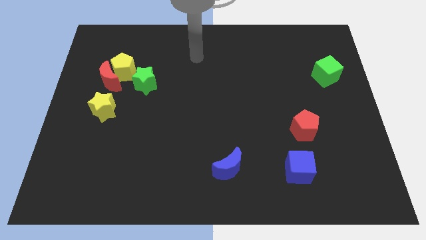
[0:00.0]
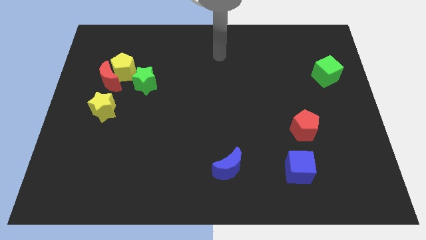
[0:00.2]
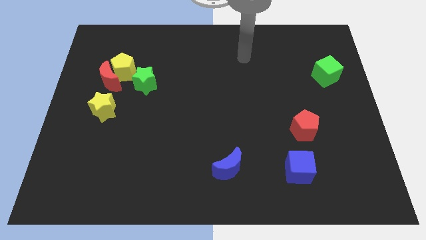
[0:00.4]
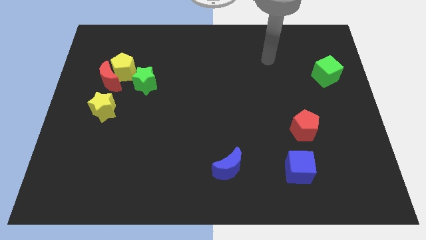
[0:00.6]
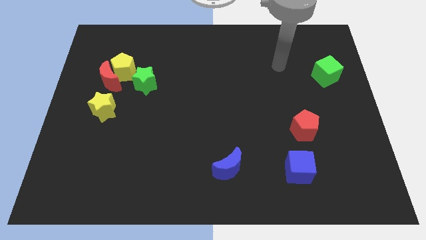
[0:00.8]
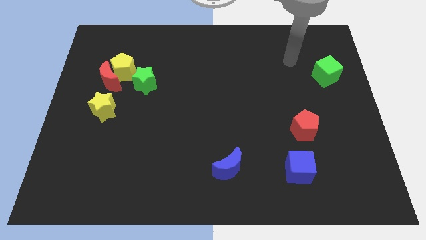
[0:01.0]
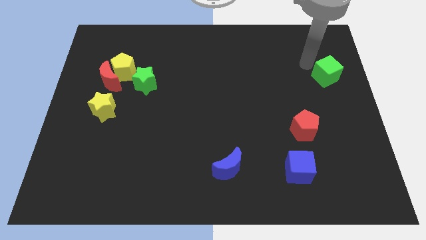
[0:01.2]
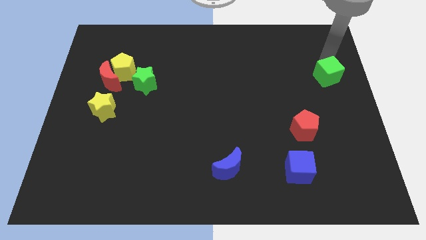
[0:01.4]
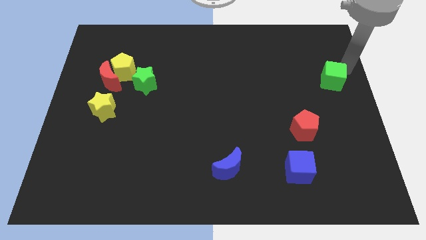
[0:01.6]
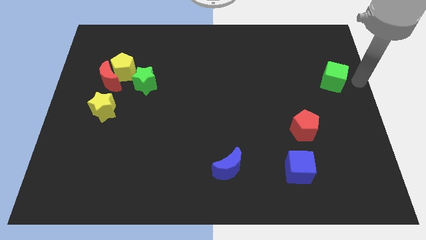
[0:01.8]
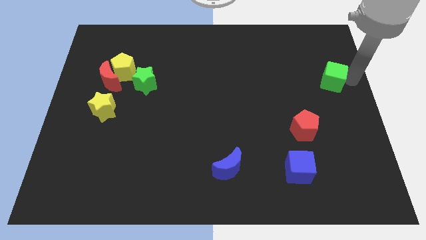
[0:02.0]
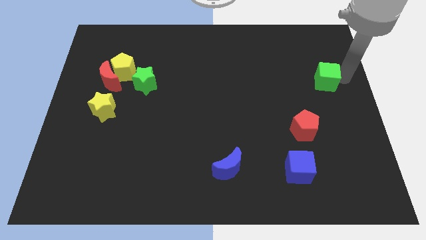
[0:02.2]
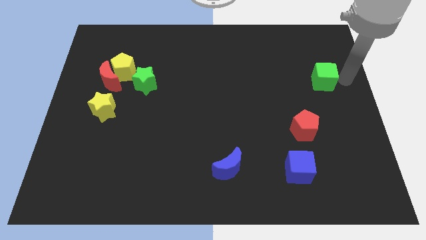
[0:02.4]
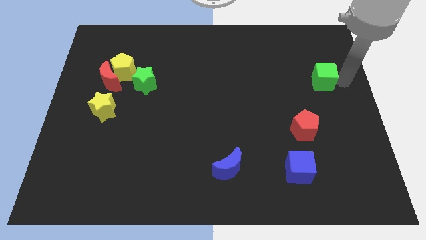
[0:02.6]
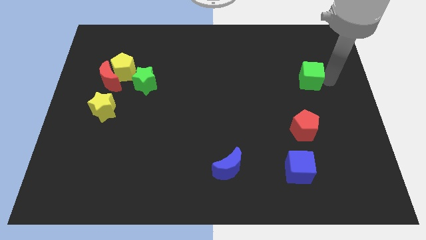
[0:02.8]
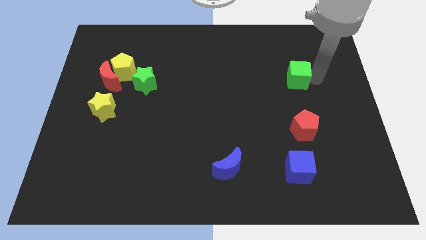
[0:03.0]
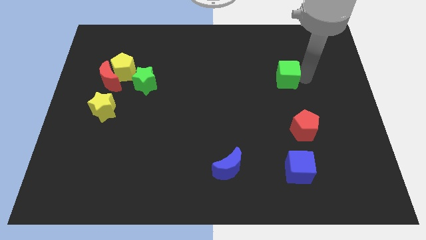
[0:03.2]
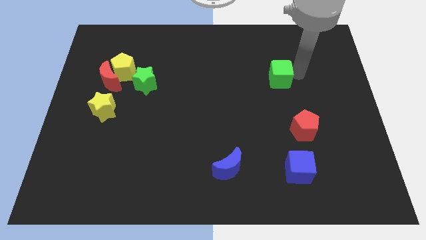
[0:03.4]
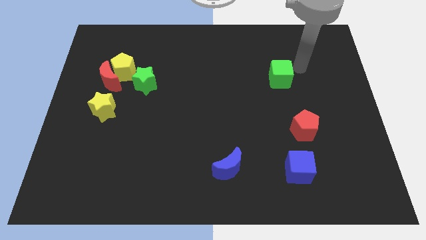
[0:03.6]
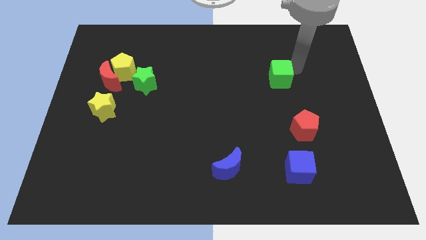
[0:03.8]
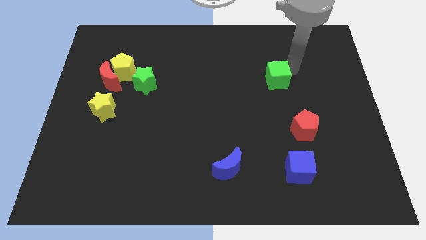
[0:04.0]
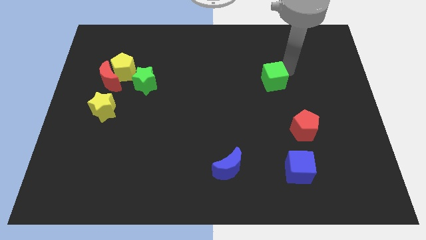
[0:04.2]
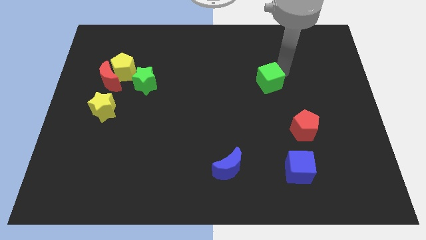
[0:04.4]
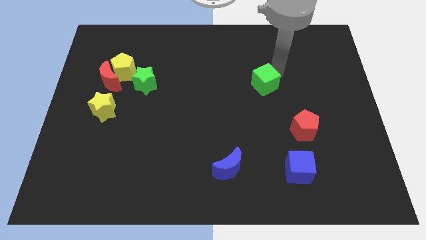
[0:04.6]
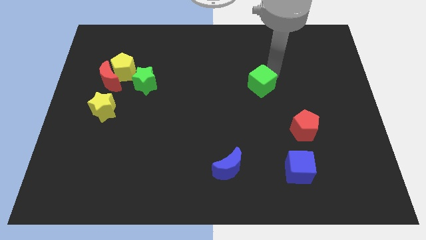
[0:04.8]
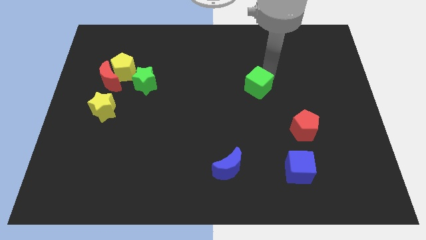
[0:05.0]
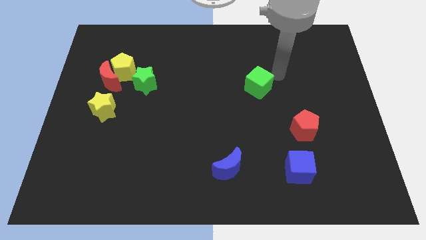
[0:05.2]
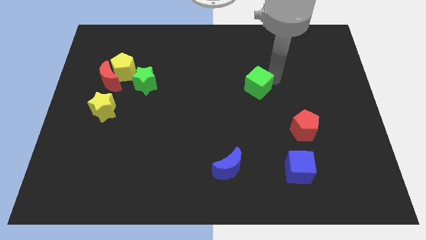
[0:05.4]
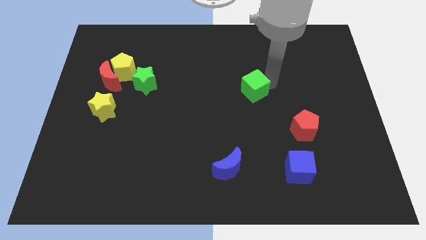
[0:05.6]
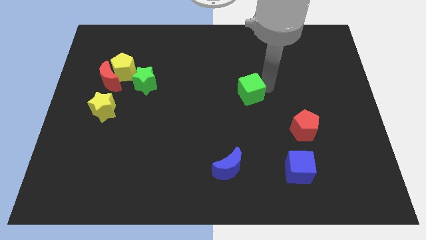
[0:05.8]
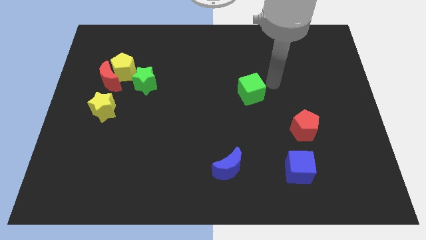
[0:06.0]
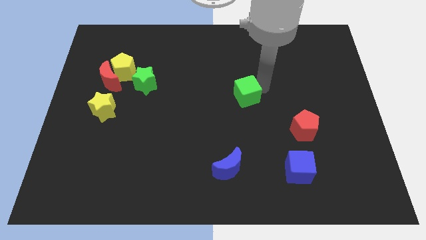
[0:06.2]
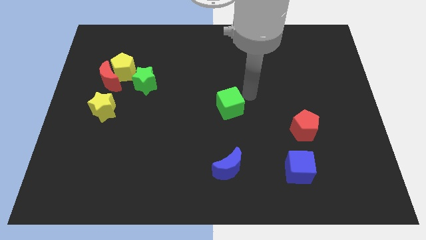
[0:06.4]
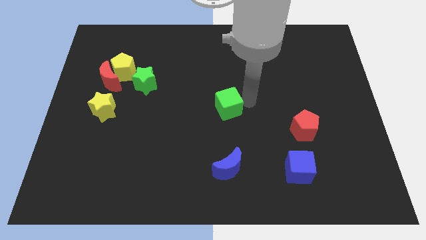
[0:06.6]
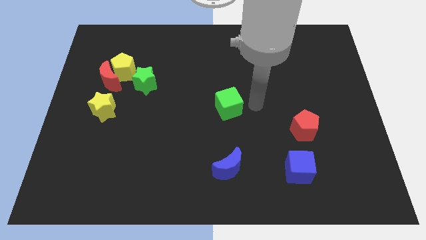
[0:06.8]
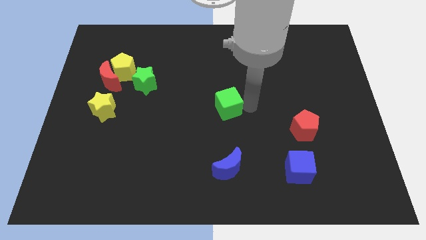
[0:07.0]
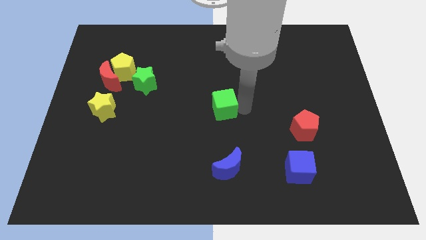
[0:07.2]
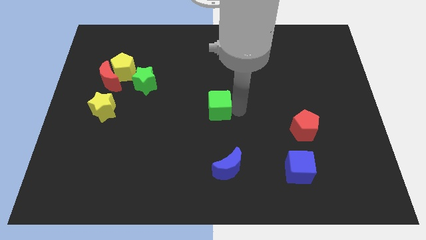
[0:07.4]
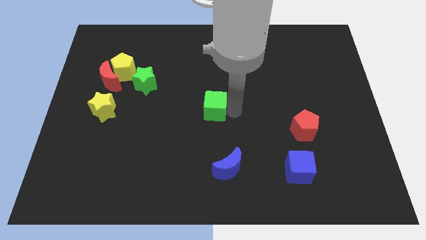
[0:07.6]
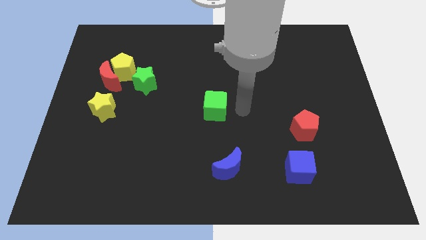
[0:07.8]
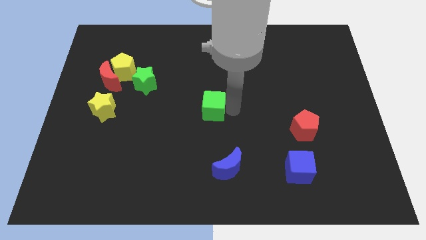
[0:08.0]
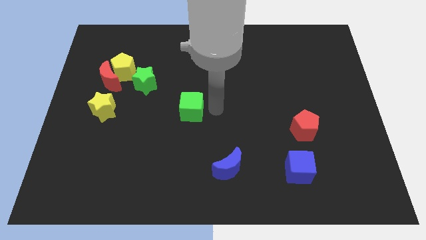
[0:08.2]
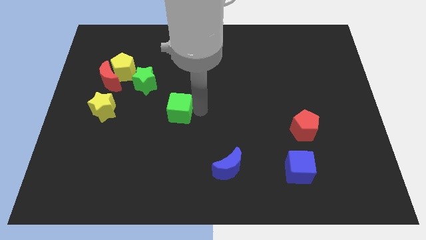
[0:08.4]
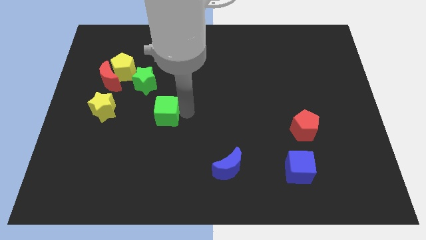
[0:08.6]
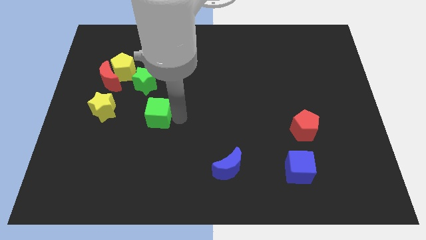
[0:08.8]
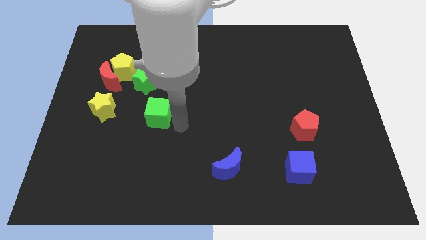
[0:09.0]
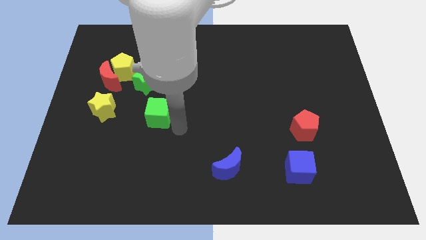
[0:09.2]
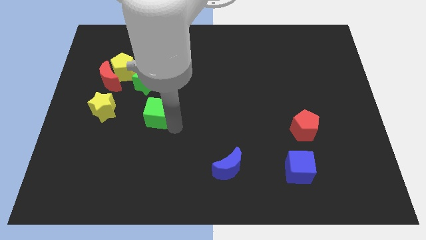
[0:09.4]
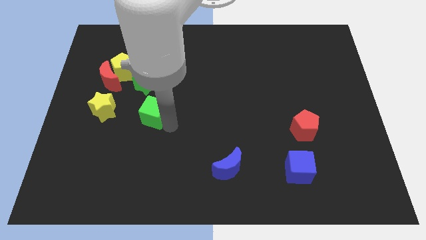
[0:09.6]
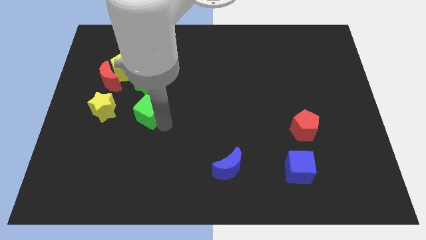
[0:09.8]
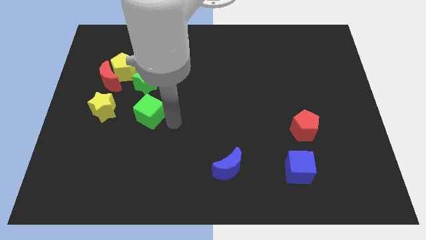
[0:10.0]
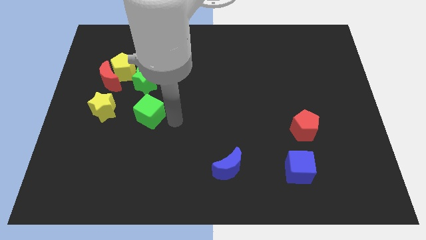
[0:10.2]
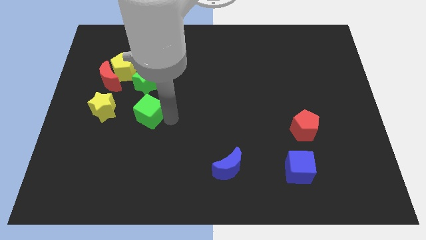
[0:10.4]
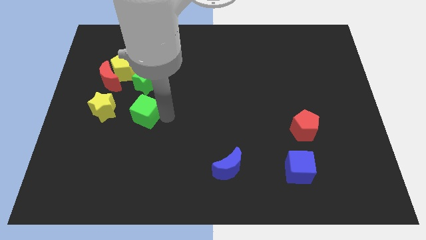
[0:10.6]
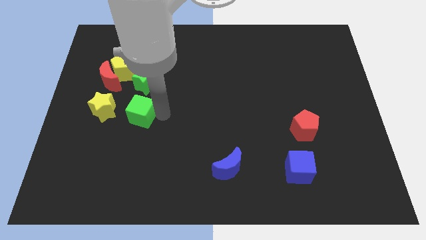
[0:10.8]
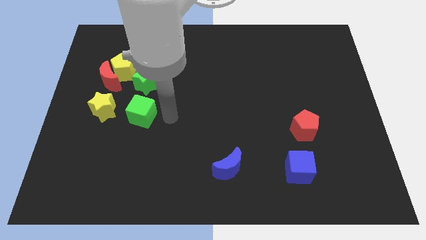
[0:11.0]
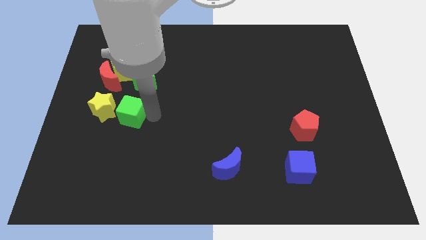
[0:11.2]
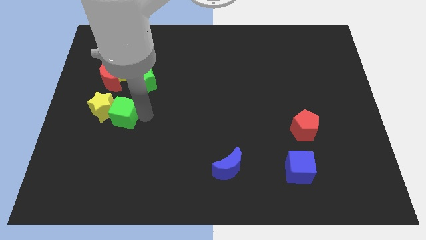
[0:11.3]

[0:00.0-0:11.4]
push the green cube close to the yellow star

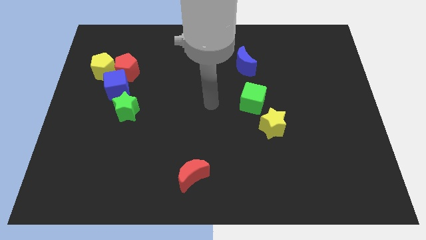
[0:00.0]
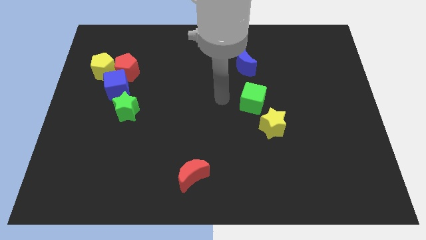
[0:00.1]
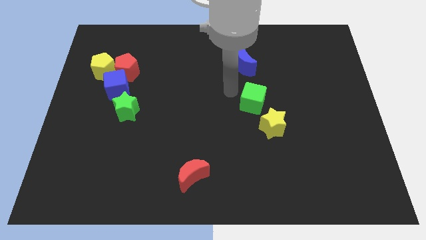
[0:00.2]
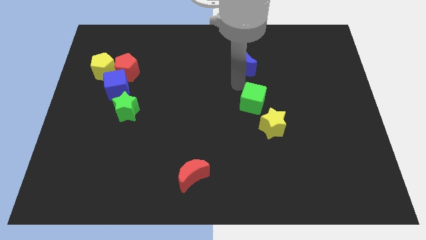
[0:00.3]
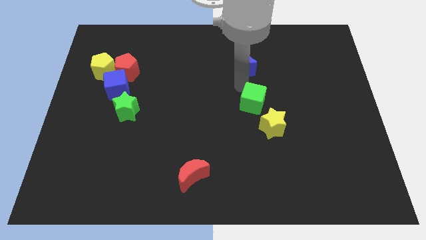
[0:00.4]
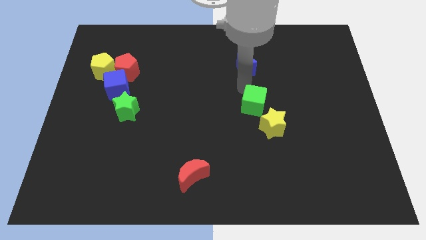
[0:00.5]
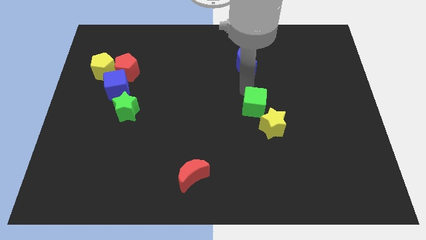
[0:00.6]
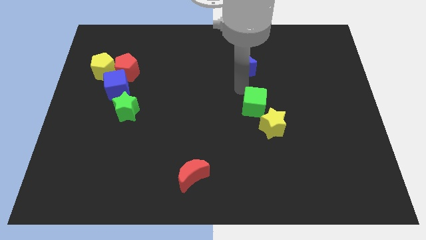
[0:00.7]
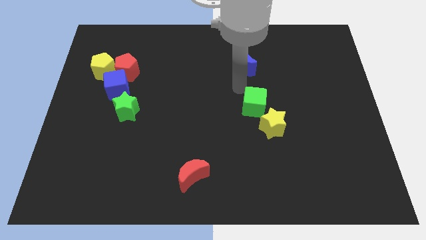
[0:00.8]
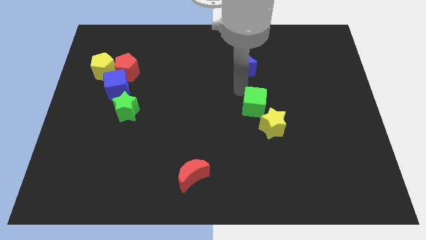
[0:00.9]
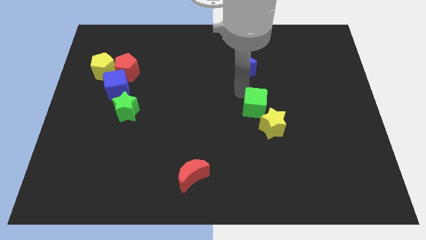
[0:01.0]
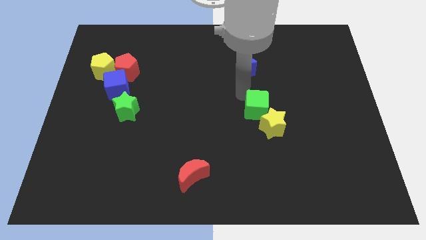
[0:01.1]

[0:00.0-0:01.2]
push the green cube to the yellow star

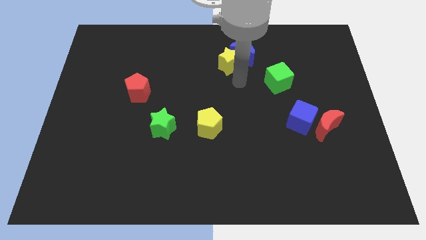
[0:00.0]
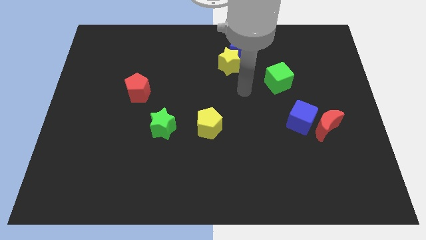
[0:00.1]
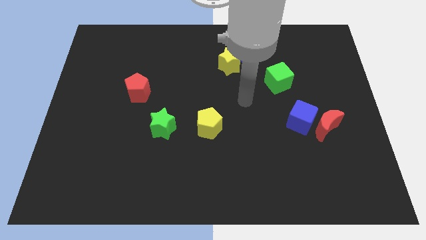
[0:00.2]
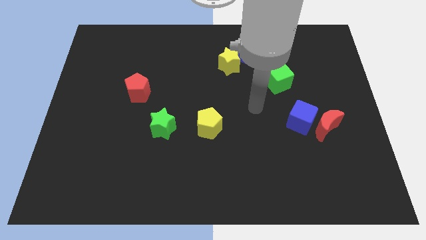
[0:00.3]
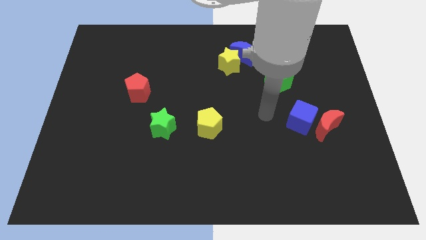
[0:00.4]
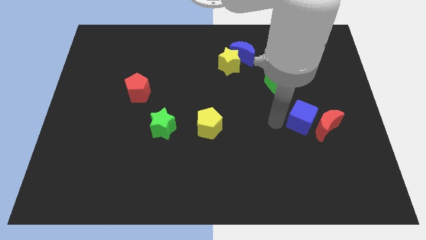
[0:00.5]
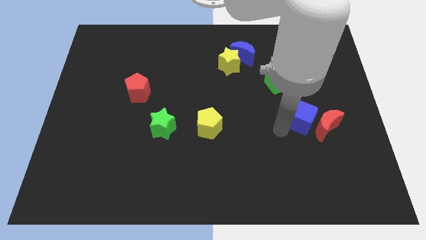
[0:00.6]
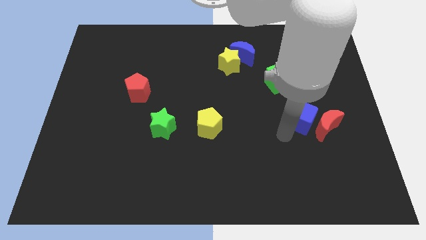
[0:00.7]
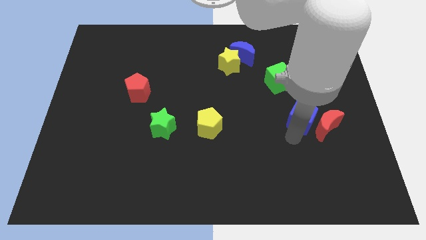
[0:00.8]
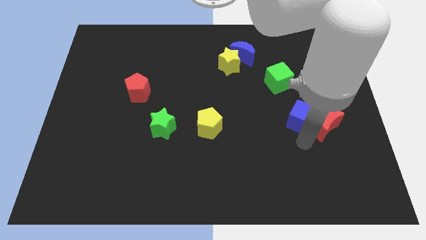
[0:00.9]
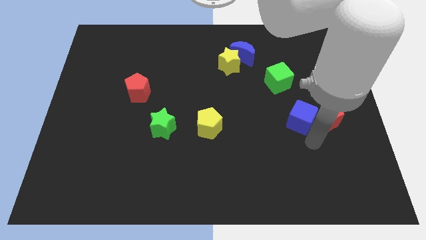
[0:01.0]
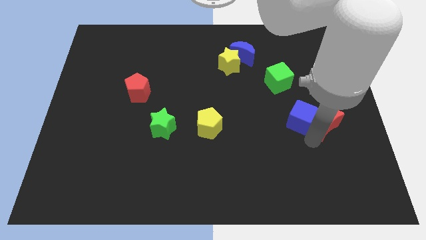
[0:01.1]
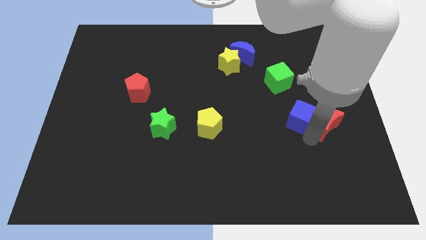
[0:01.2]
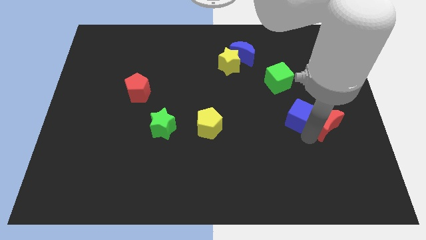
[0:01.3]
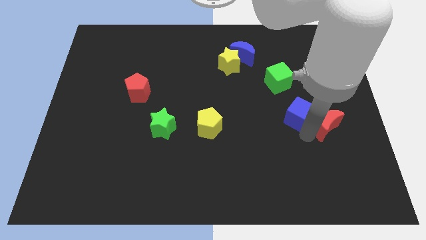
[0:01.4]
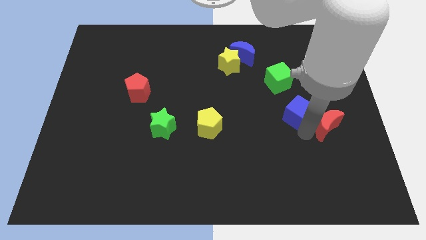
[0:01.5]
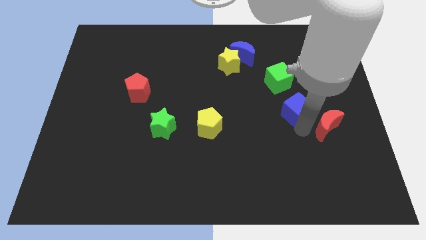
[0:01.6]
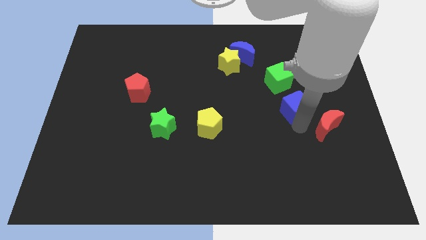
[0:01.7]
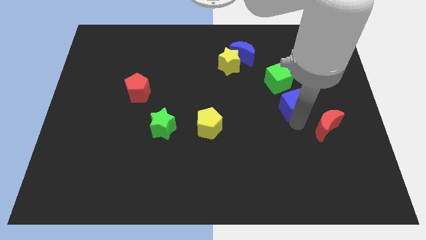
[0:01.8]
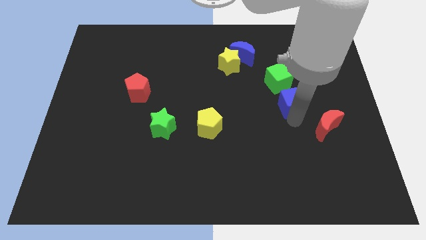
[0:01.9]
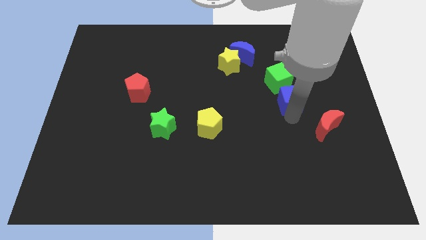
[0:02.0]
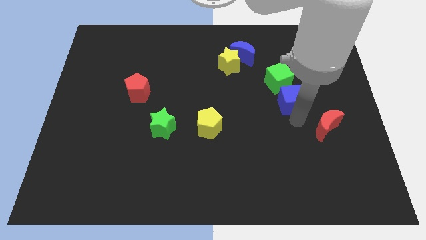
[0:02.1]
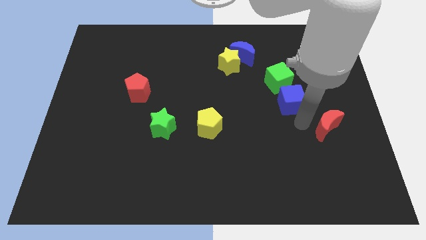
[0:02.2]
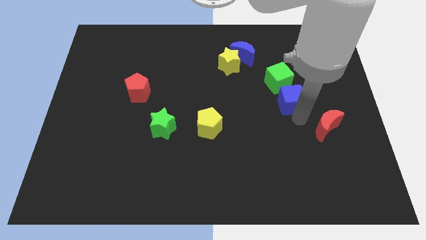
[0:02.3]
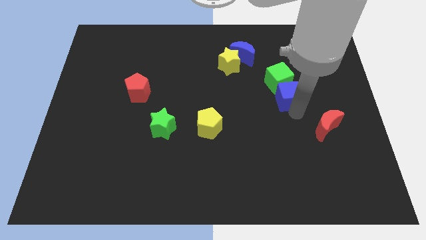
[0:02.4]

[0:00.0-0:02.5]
slide the blue cube close to the green cube
